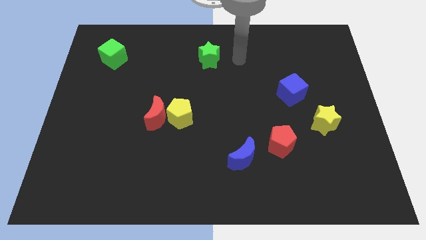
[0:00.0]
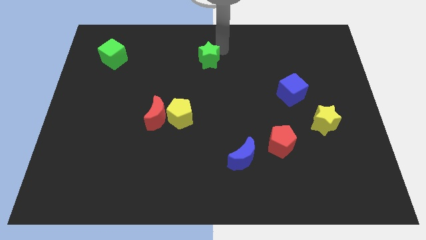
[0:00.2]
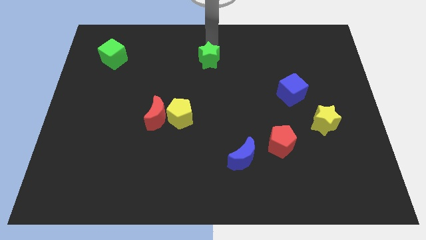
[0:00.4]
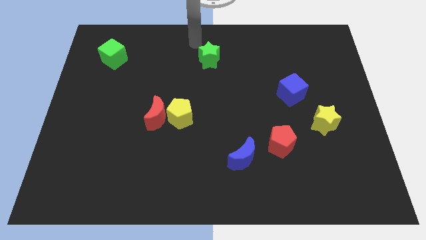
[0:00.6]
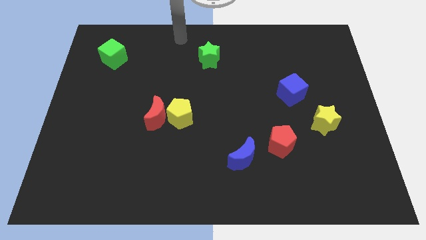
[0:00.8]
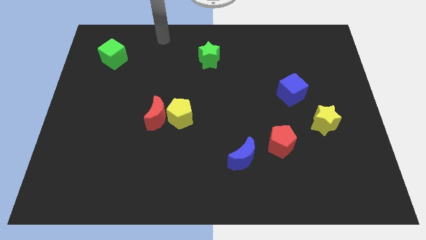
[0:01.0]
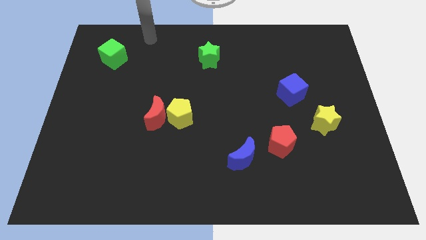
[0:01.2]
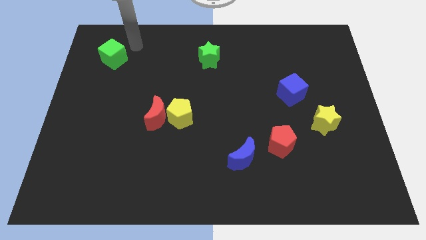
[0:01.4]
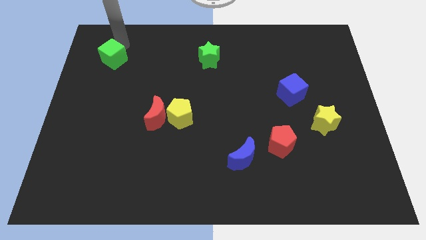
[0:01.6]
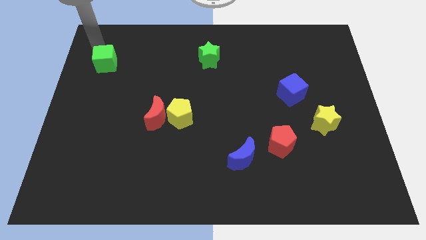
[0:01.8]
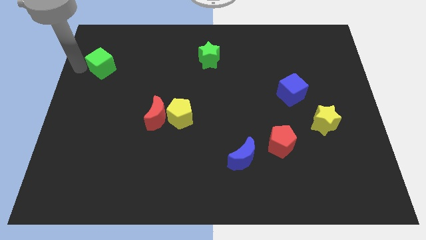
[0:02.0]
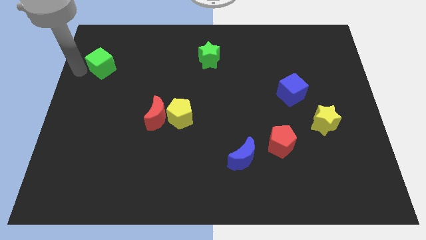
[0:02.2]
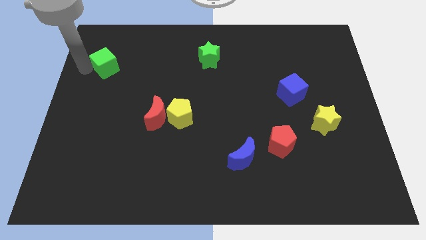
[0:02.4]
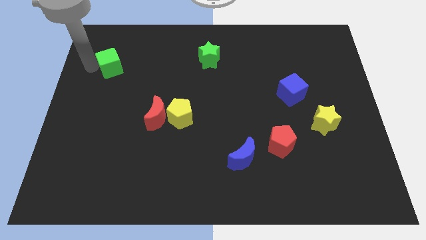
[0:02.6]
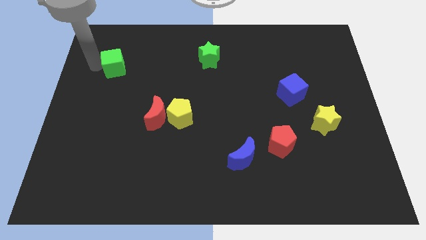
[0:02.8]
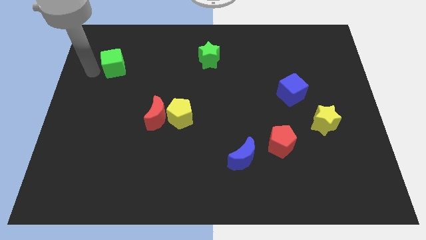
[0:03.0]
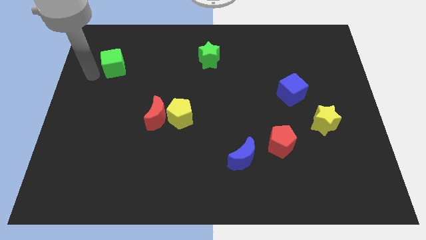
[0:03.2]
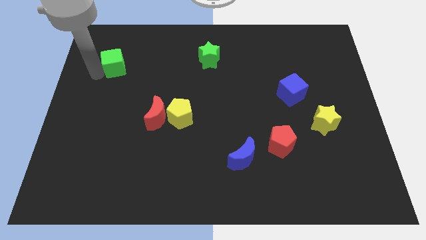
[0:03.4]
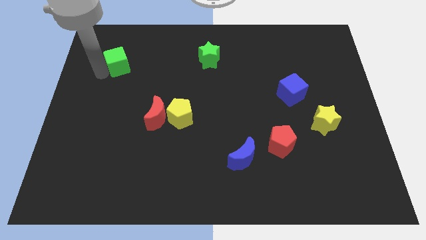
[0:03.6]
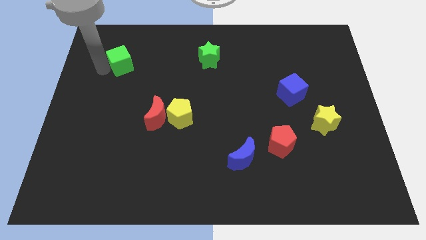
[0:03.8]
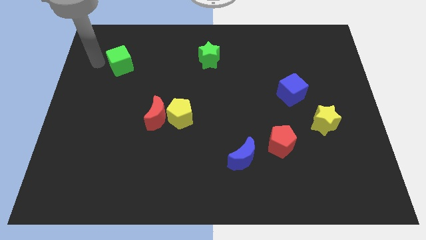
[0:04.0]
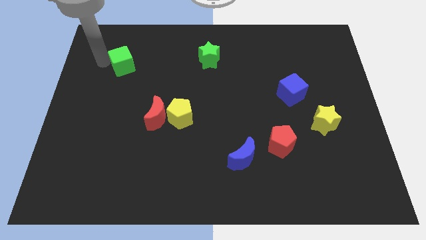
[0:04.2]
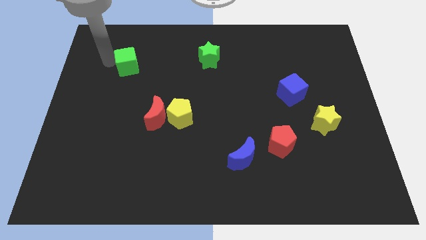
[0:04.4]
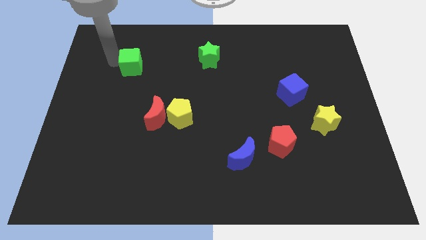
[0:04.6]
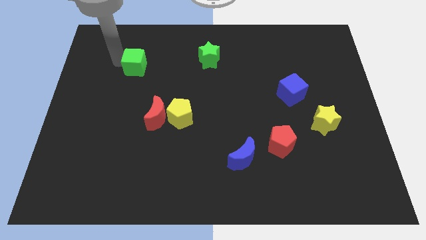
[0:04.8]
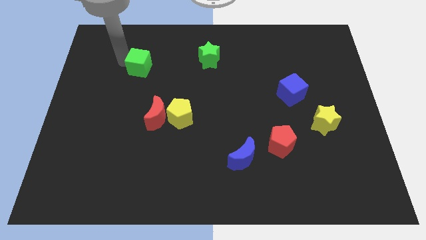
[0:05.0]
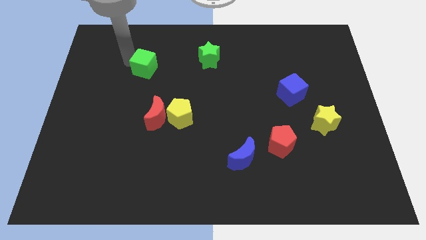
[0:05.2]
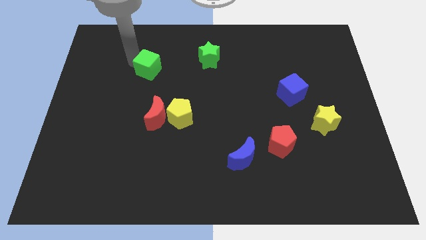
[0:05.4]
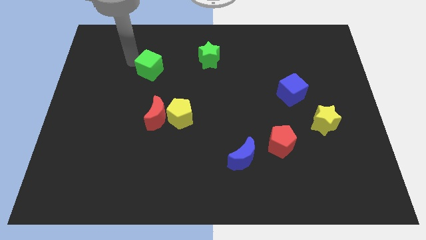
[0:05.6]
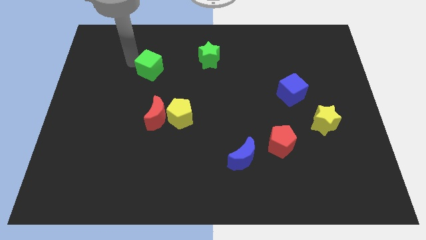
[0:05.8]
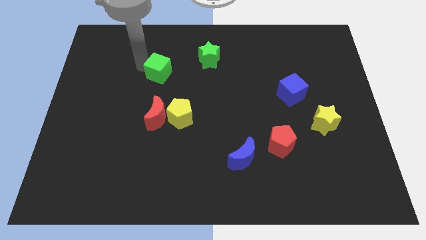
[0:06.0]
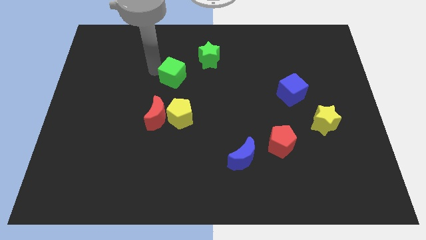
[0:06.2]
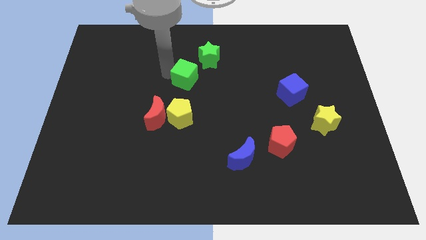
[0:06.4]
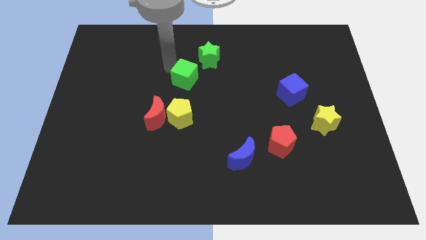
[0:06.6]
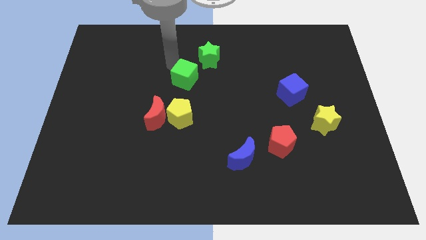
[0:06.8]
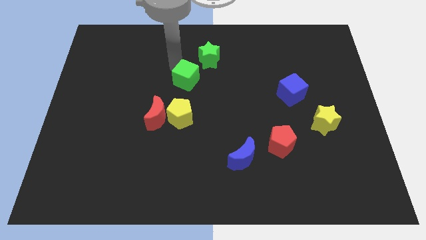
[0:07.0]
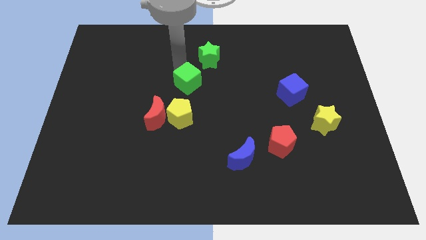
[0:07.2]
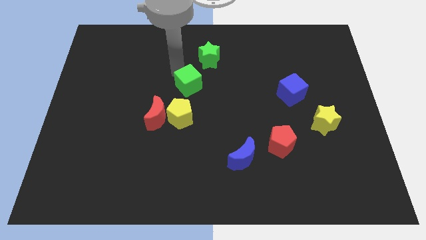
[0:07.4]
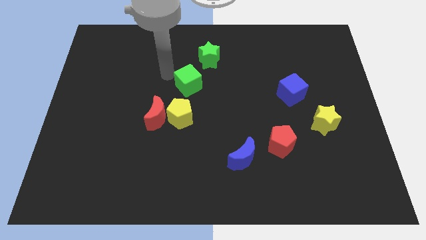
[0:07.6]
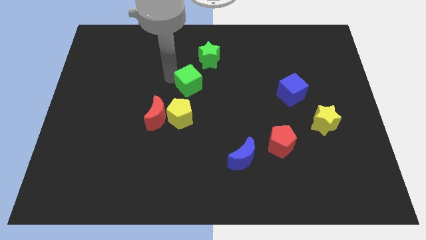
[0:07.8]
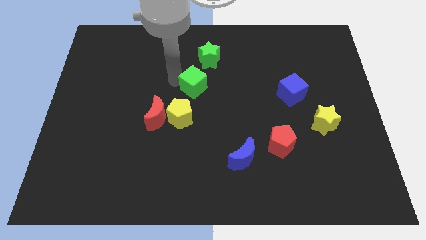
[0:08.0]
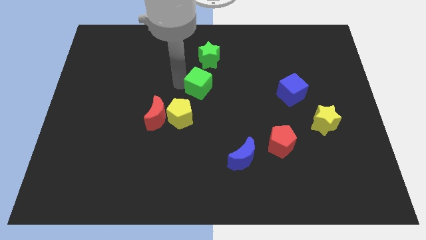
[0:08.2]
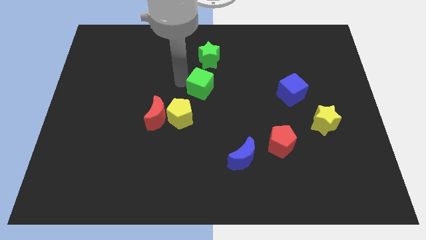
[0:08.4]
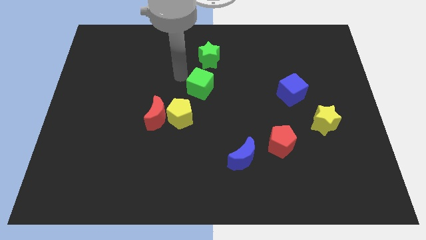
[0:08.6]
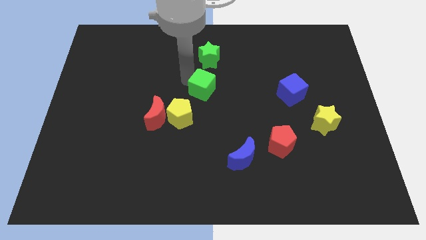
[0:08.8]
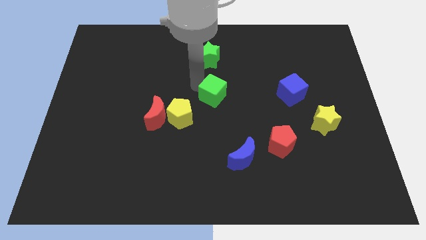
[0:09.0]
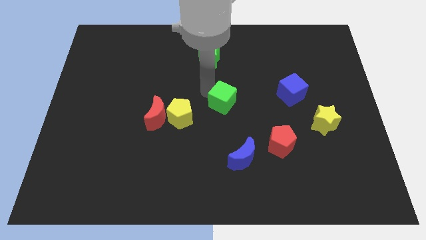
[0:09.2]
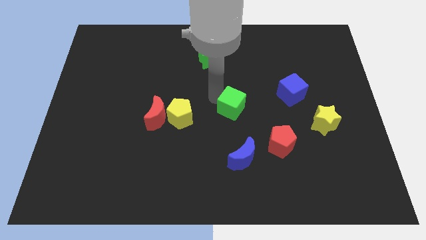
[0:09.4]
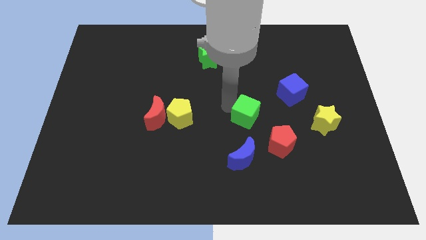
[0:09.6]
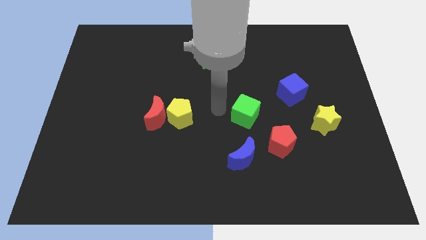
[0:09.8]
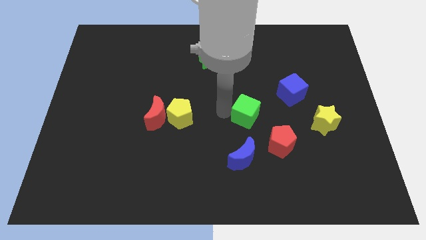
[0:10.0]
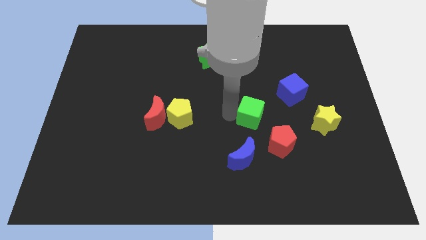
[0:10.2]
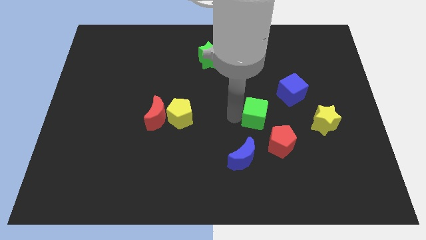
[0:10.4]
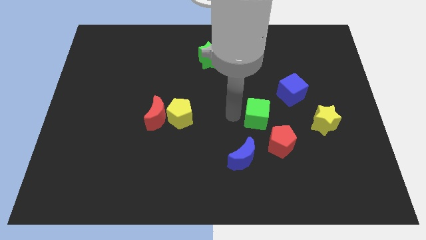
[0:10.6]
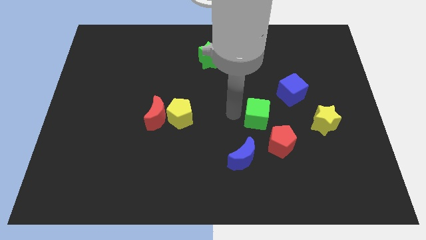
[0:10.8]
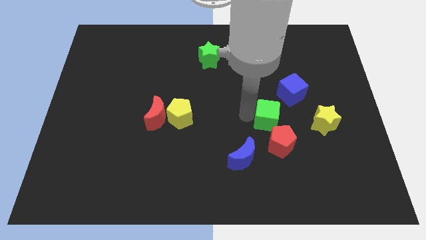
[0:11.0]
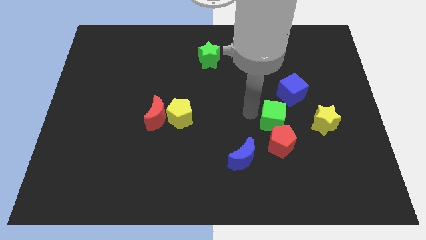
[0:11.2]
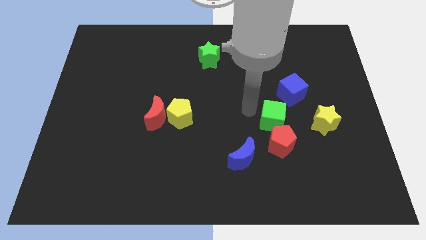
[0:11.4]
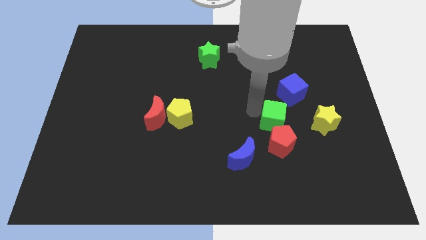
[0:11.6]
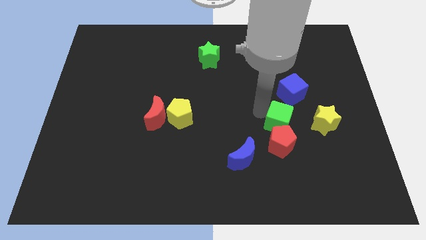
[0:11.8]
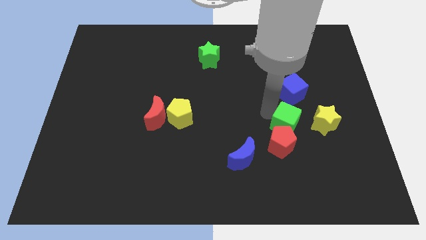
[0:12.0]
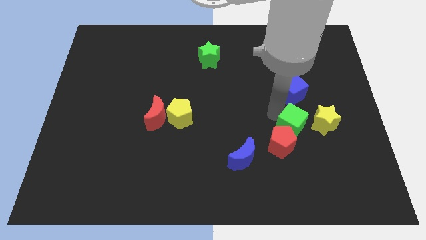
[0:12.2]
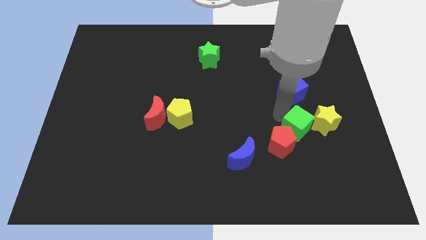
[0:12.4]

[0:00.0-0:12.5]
slide the green cube to the right side of the red pentagon

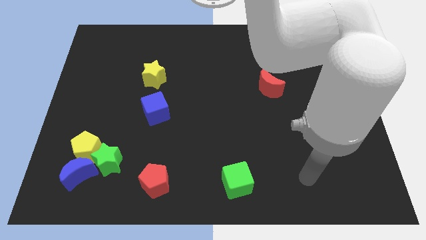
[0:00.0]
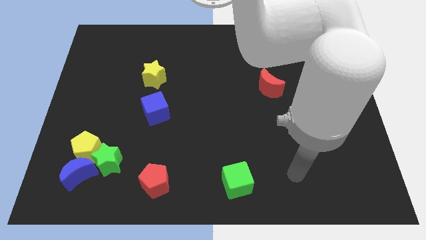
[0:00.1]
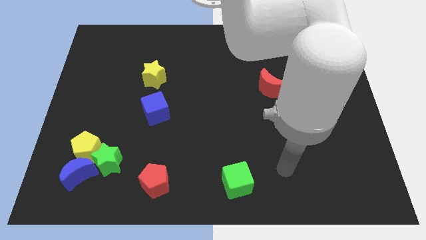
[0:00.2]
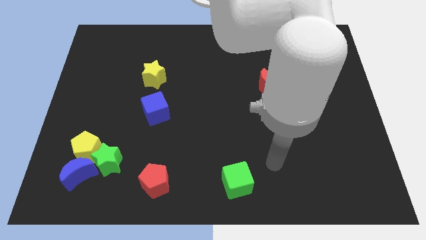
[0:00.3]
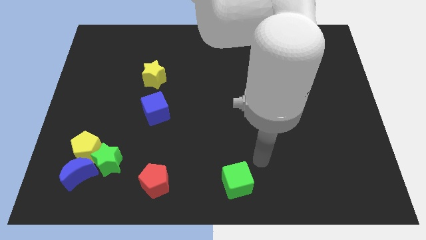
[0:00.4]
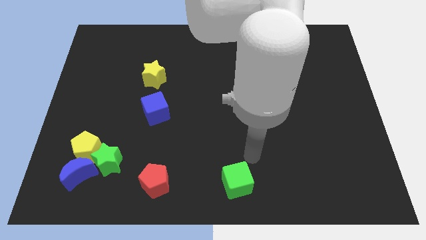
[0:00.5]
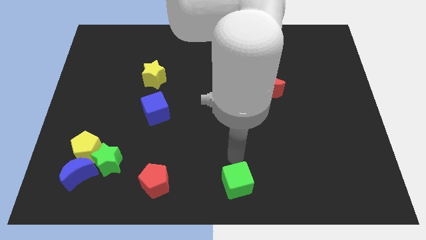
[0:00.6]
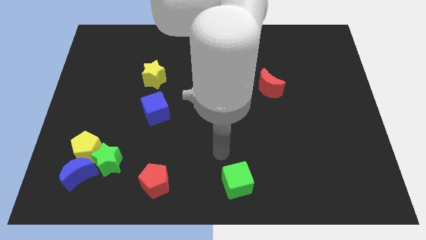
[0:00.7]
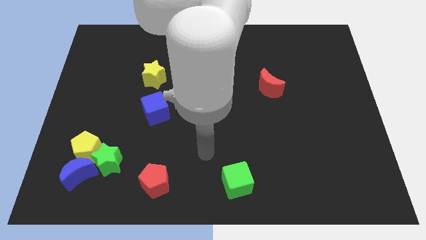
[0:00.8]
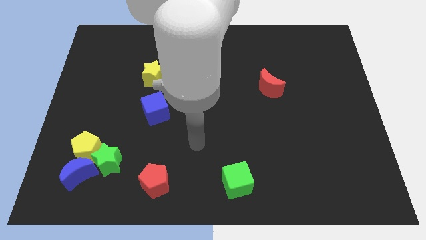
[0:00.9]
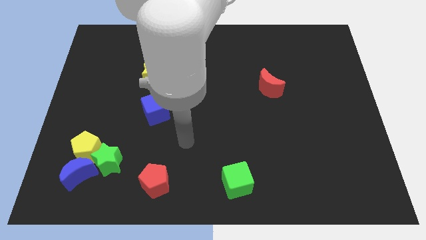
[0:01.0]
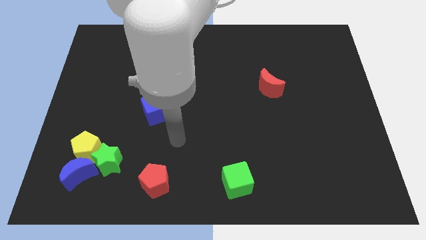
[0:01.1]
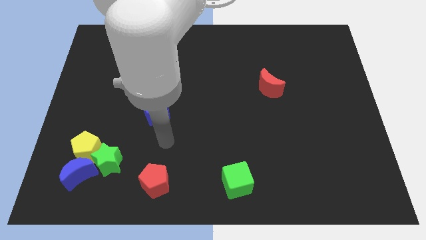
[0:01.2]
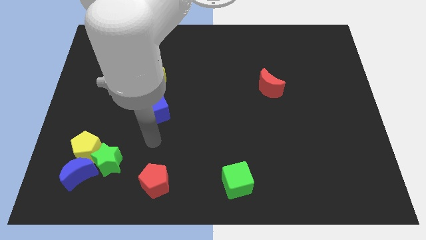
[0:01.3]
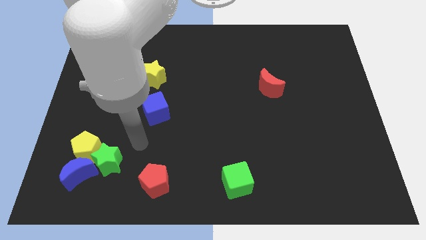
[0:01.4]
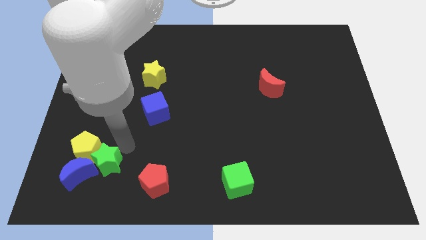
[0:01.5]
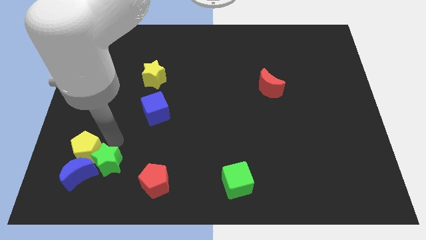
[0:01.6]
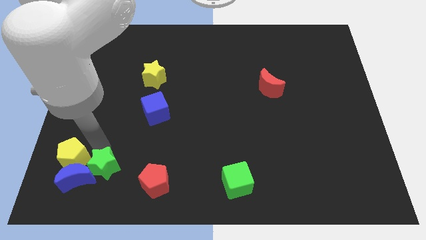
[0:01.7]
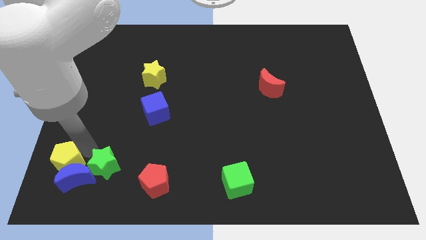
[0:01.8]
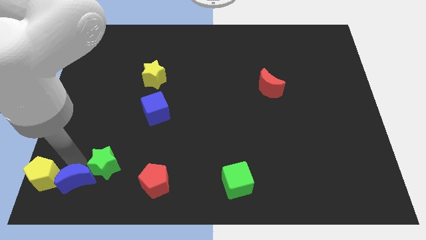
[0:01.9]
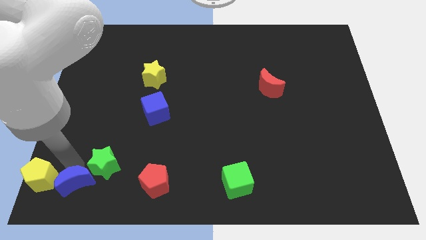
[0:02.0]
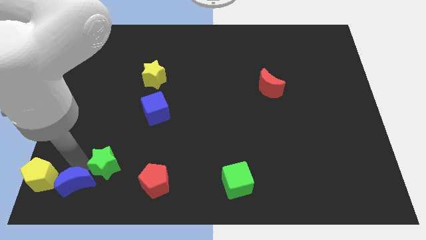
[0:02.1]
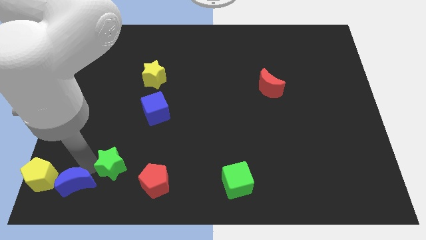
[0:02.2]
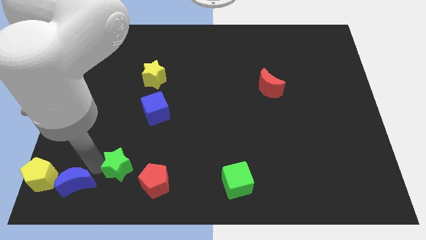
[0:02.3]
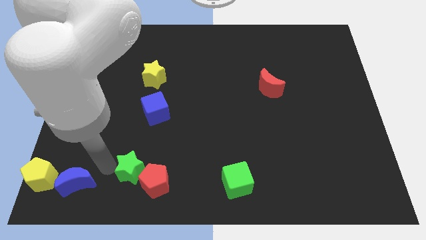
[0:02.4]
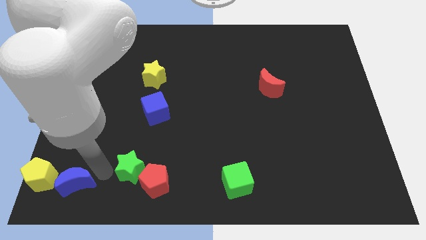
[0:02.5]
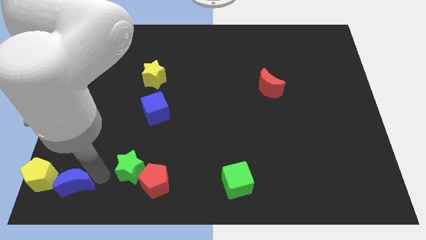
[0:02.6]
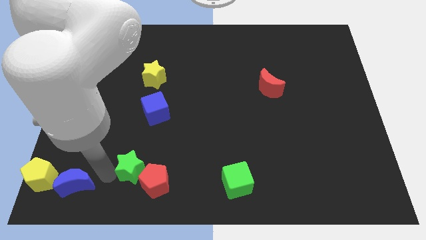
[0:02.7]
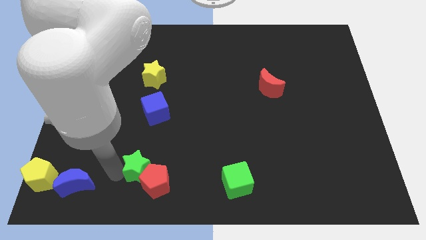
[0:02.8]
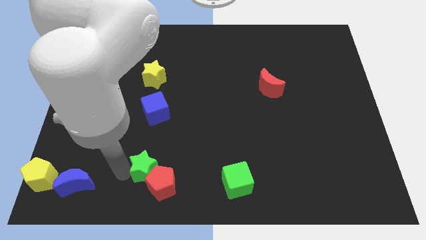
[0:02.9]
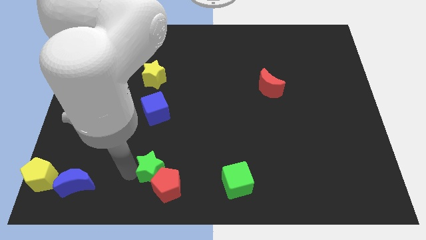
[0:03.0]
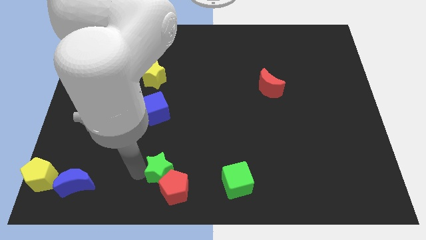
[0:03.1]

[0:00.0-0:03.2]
slide the green star just left of the green cube
